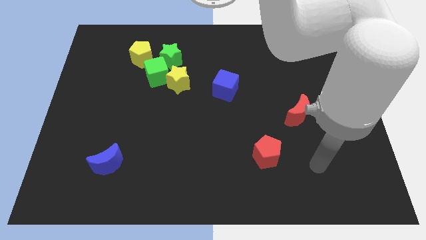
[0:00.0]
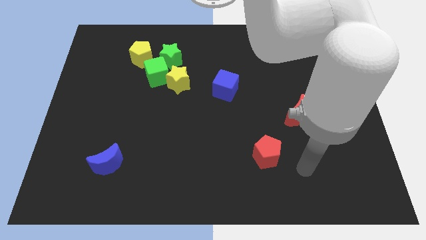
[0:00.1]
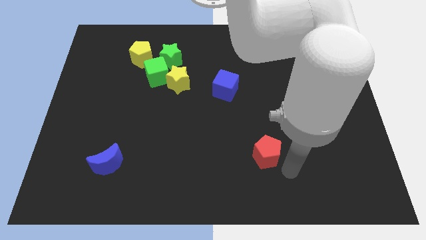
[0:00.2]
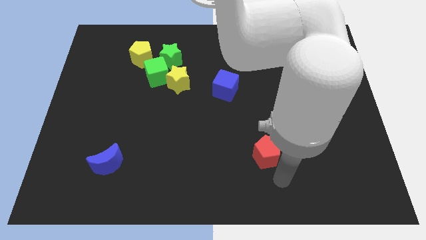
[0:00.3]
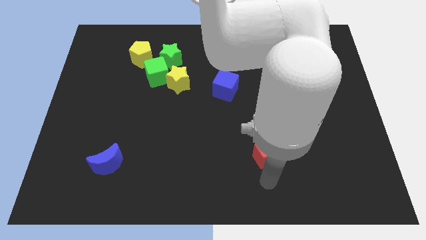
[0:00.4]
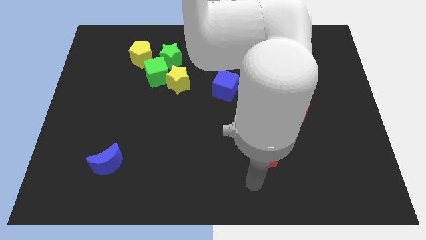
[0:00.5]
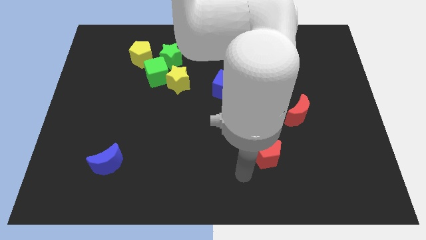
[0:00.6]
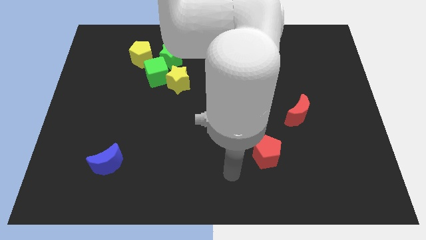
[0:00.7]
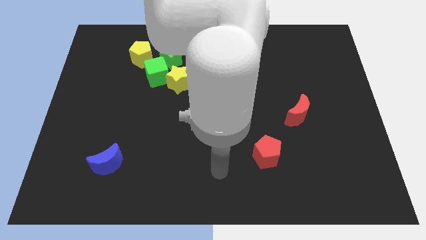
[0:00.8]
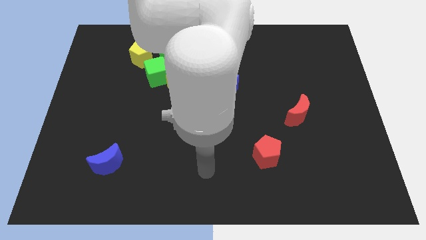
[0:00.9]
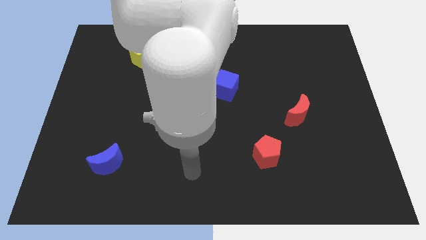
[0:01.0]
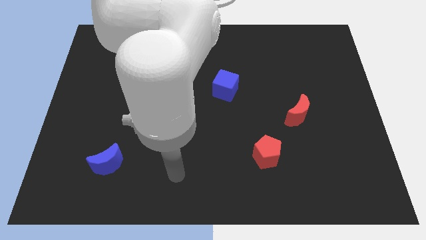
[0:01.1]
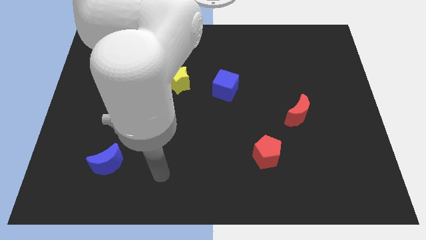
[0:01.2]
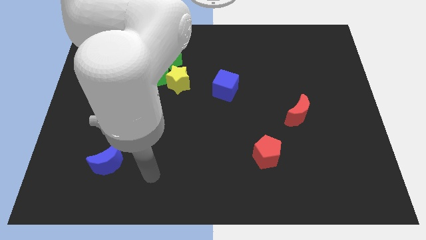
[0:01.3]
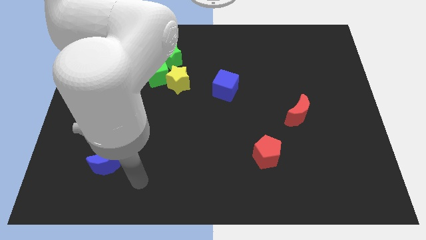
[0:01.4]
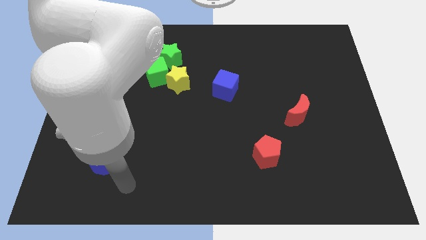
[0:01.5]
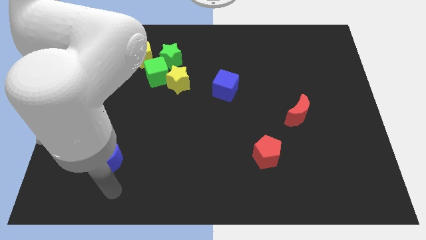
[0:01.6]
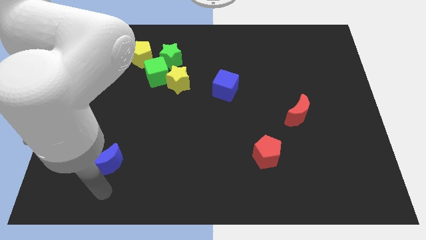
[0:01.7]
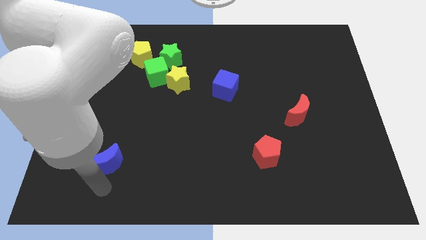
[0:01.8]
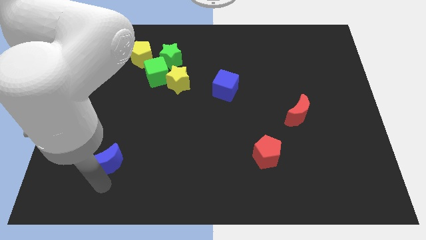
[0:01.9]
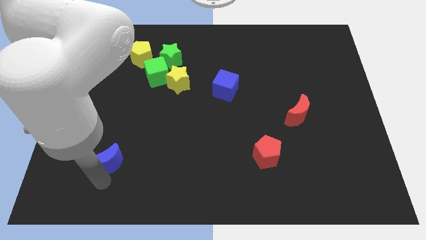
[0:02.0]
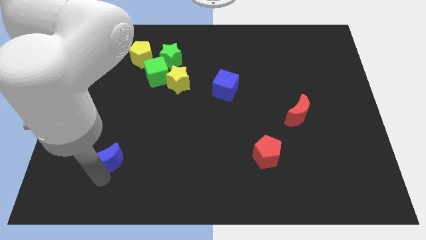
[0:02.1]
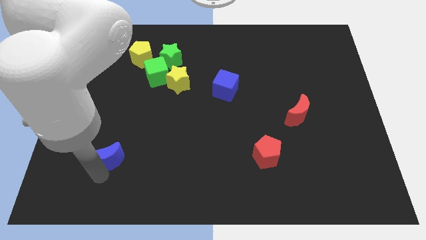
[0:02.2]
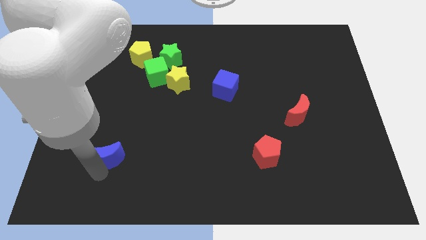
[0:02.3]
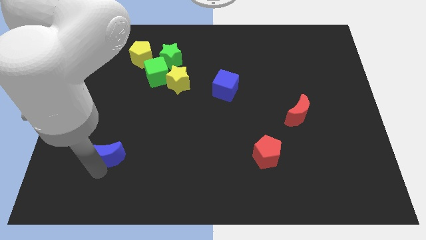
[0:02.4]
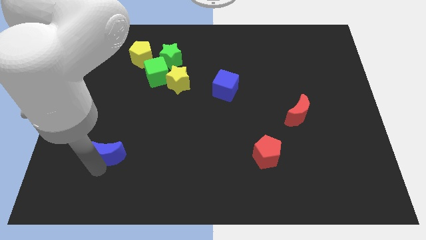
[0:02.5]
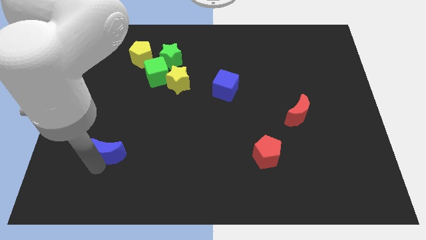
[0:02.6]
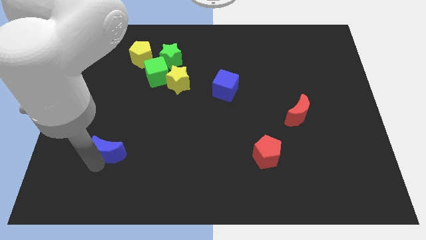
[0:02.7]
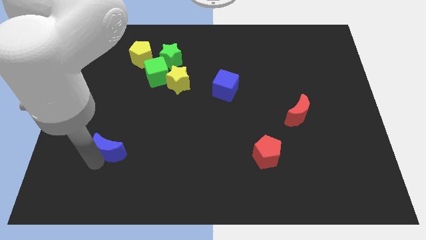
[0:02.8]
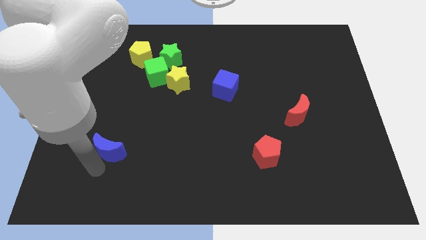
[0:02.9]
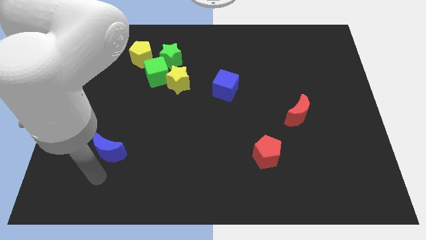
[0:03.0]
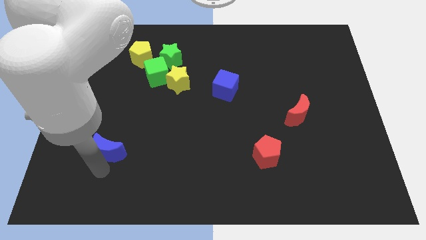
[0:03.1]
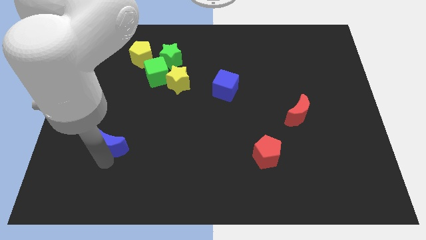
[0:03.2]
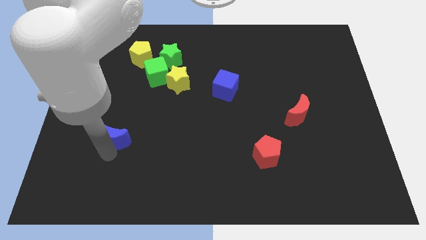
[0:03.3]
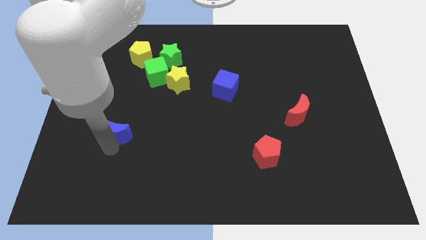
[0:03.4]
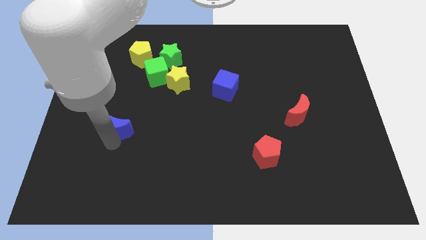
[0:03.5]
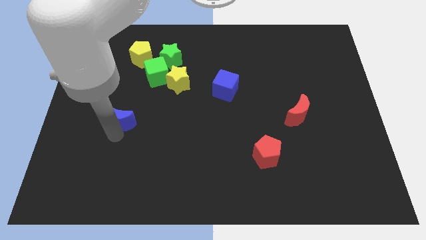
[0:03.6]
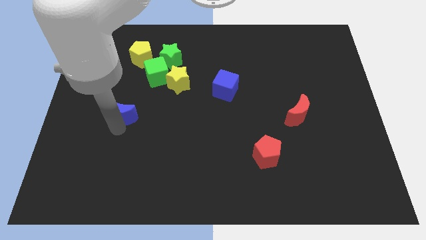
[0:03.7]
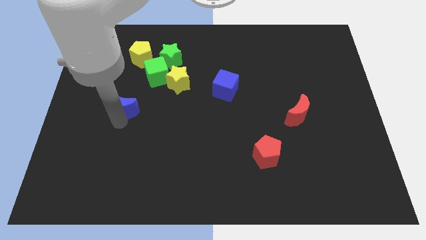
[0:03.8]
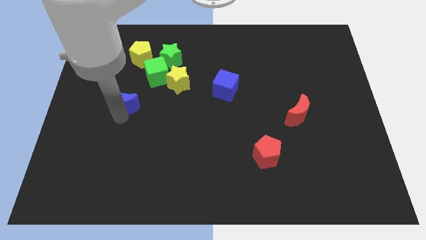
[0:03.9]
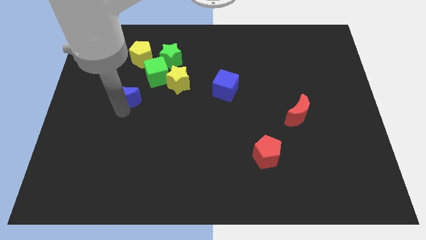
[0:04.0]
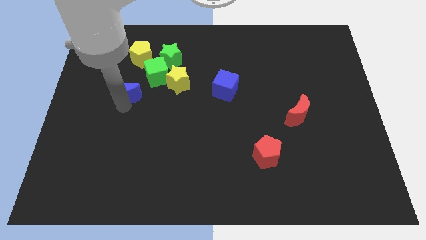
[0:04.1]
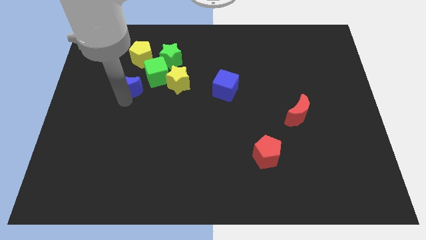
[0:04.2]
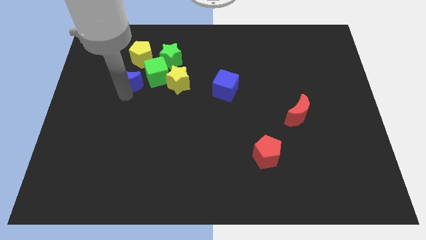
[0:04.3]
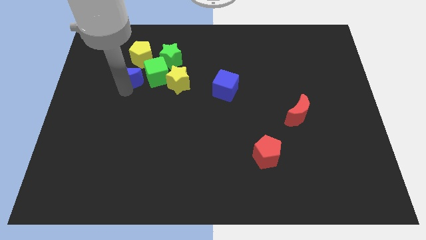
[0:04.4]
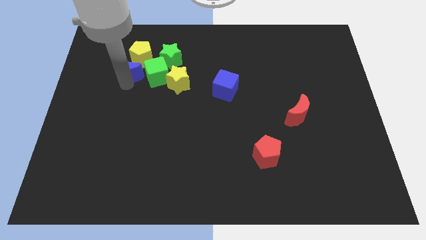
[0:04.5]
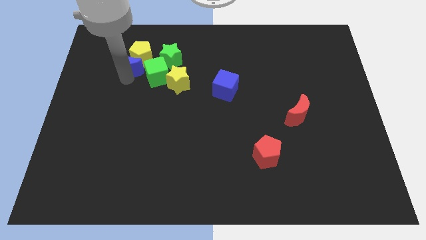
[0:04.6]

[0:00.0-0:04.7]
push the blue moon to the yellow pentagon

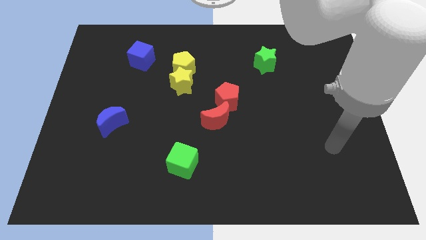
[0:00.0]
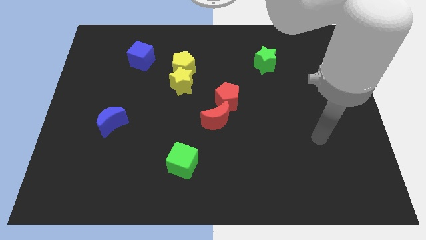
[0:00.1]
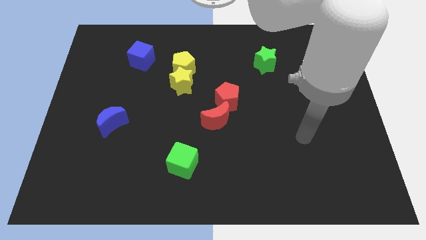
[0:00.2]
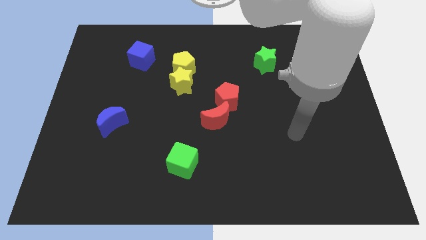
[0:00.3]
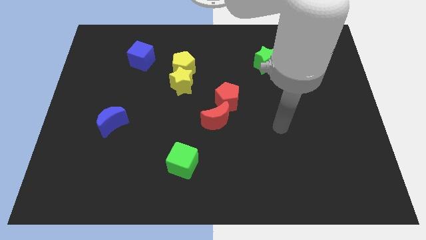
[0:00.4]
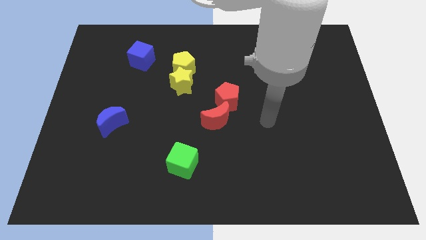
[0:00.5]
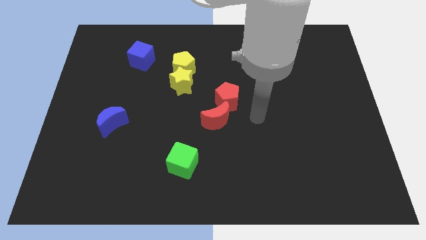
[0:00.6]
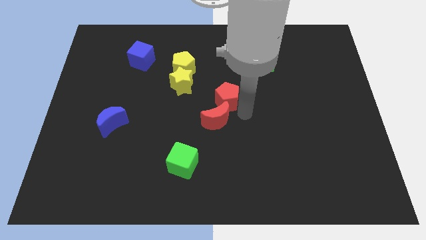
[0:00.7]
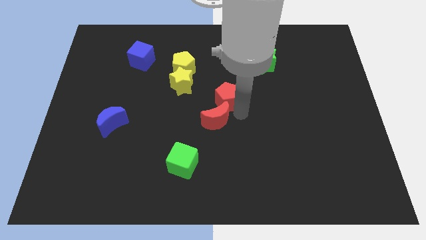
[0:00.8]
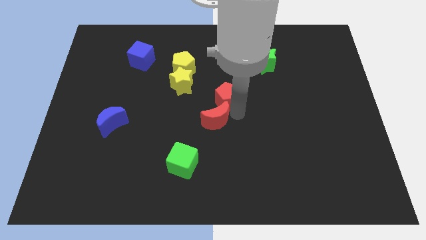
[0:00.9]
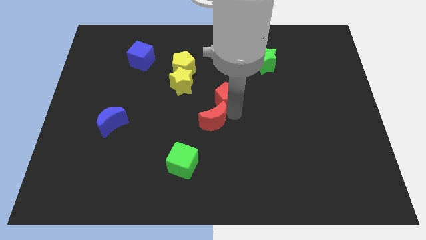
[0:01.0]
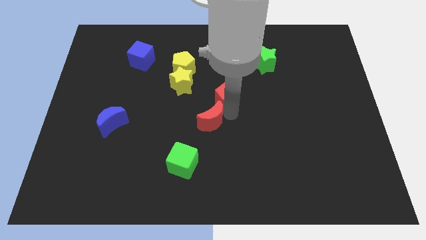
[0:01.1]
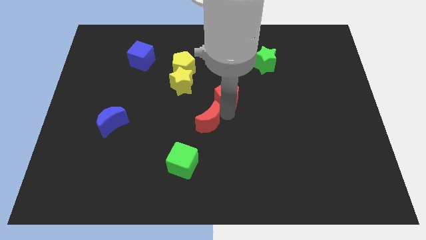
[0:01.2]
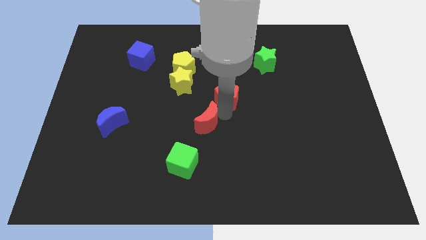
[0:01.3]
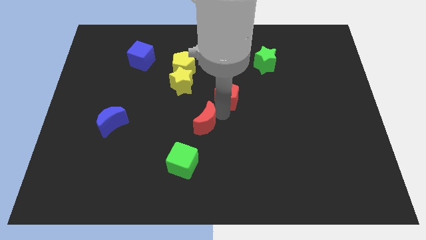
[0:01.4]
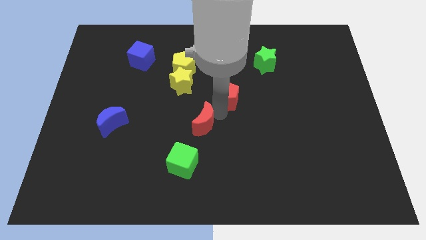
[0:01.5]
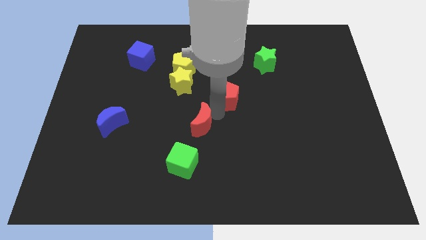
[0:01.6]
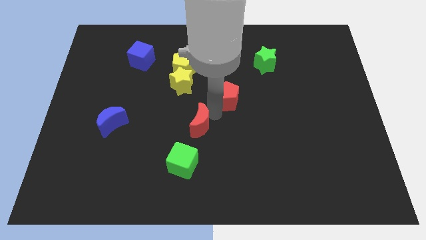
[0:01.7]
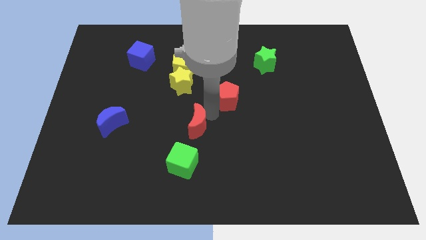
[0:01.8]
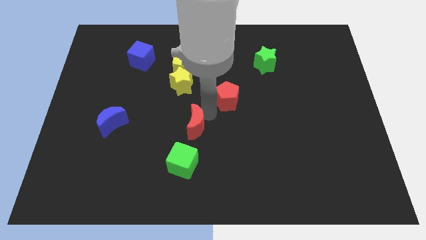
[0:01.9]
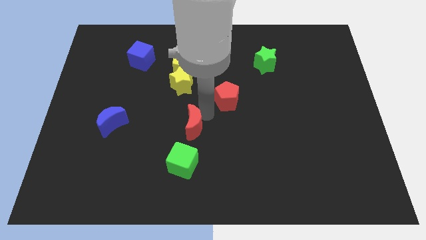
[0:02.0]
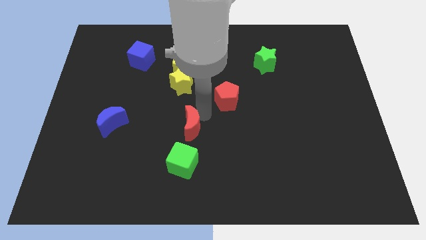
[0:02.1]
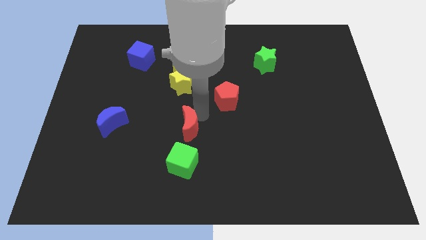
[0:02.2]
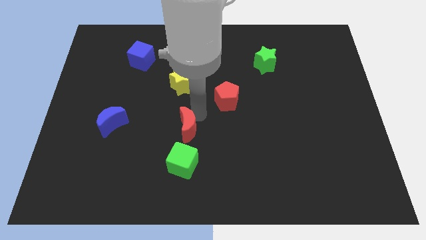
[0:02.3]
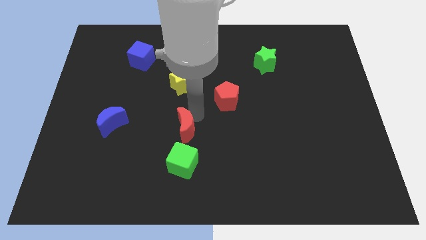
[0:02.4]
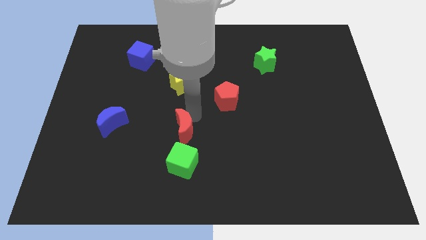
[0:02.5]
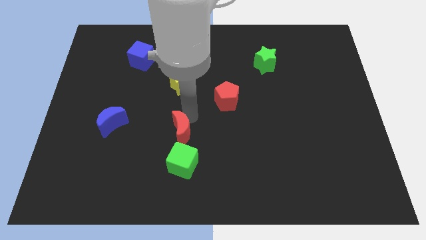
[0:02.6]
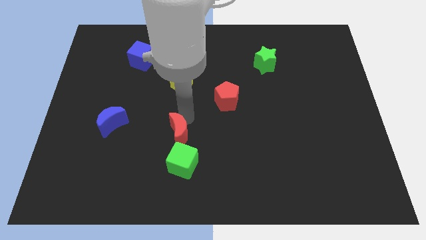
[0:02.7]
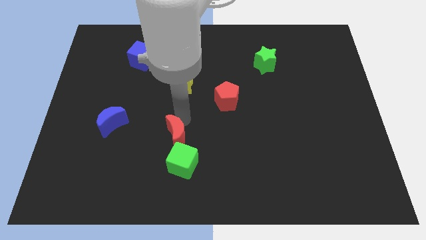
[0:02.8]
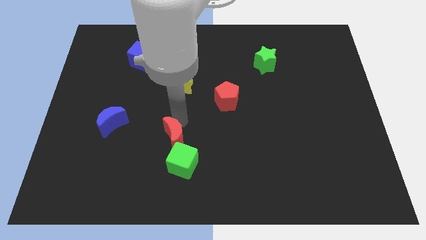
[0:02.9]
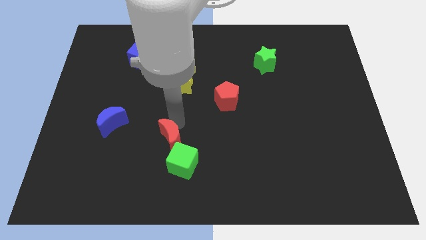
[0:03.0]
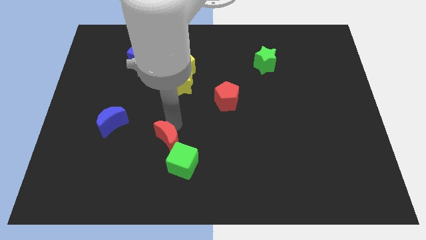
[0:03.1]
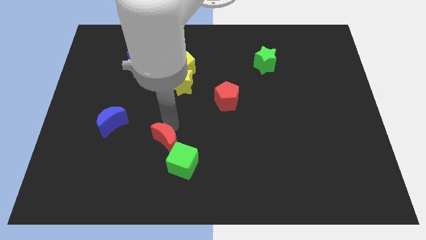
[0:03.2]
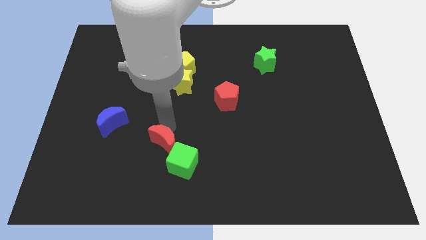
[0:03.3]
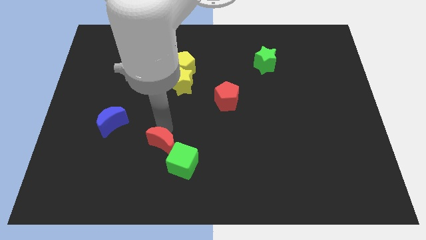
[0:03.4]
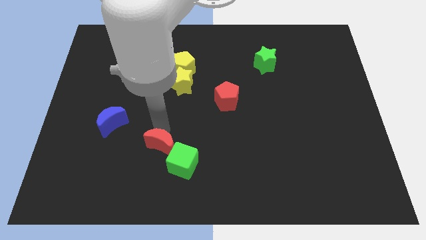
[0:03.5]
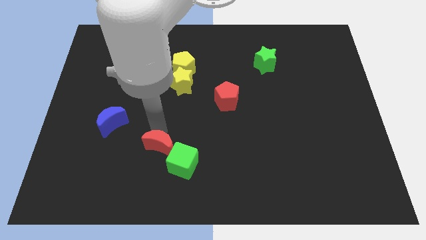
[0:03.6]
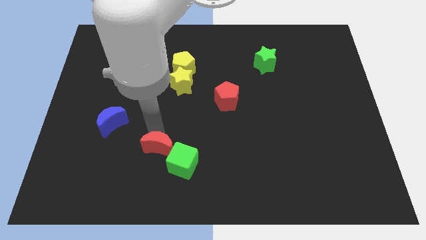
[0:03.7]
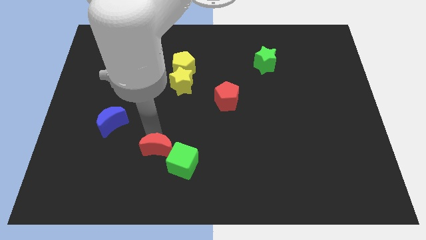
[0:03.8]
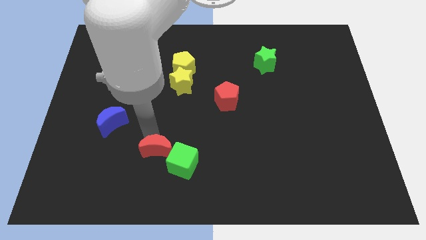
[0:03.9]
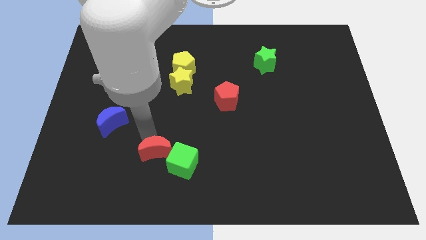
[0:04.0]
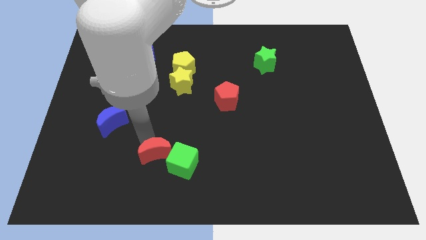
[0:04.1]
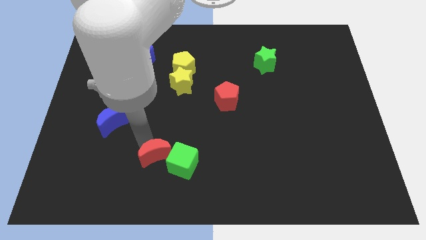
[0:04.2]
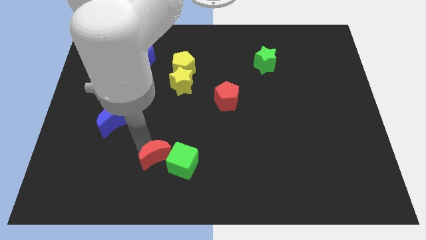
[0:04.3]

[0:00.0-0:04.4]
slide the red moon next to the green cube
